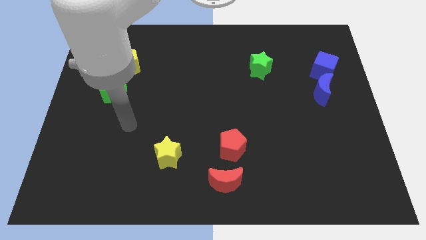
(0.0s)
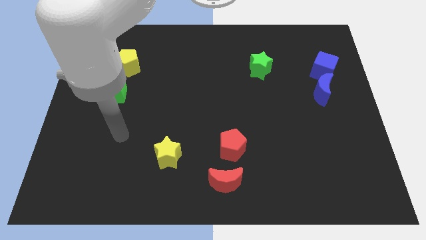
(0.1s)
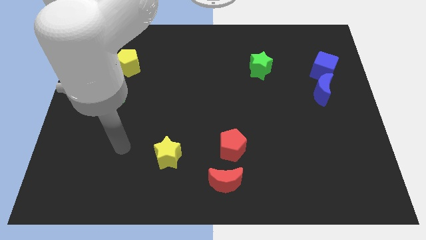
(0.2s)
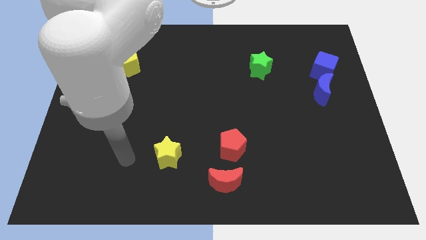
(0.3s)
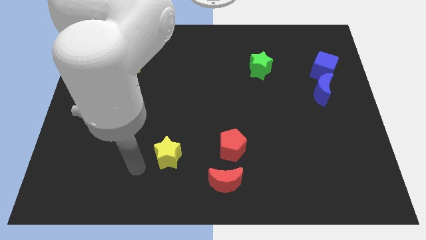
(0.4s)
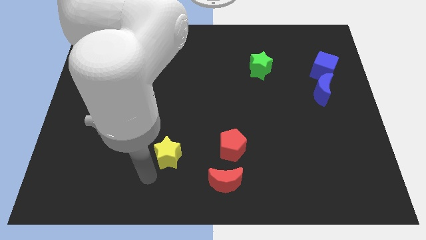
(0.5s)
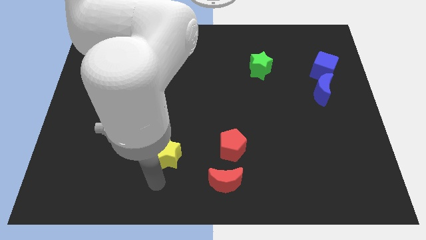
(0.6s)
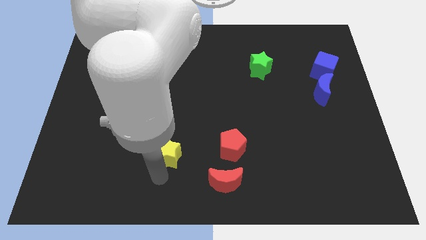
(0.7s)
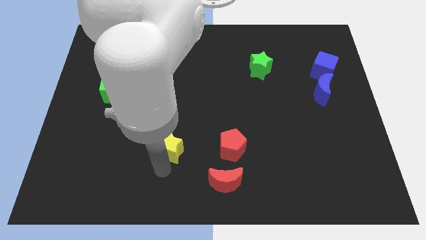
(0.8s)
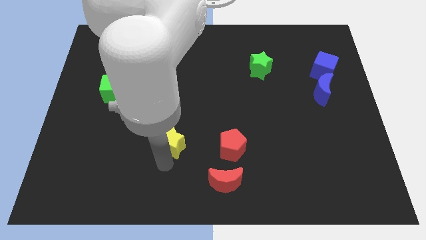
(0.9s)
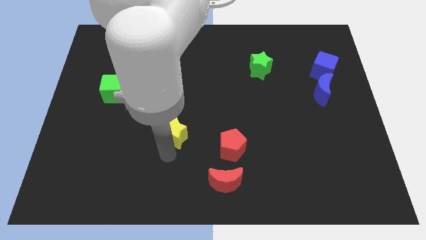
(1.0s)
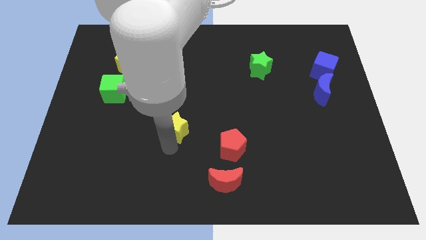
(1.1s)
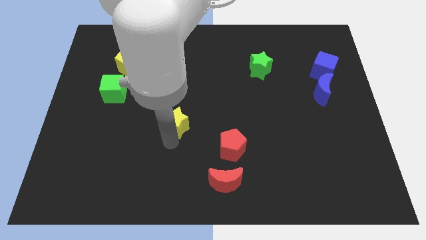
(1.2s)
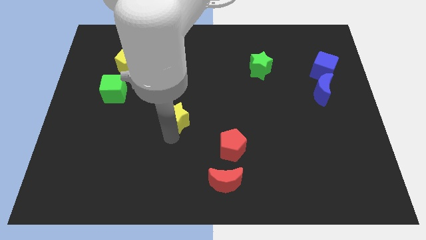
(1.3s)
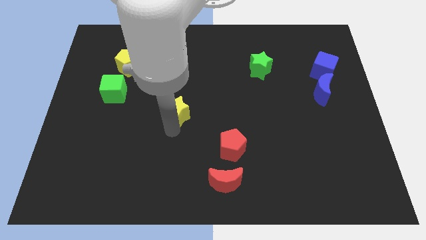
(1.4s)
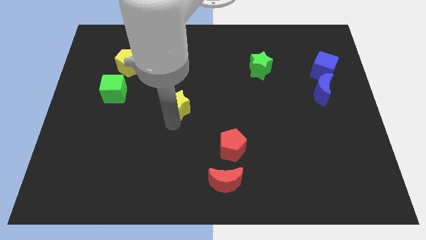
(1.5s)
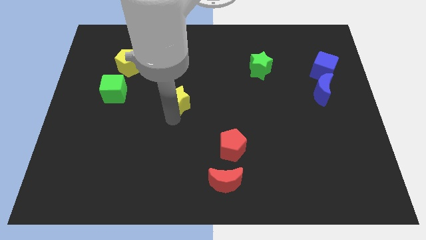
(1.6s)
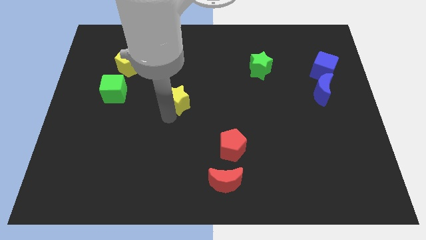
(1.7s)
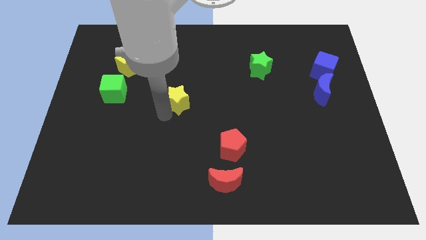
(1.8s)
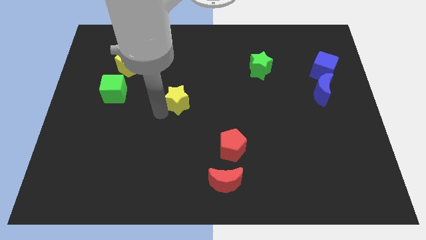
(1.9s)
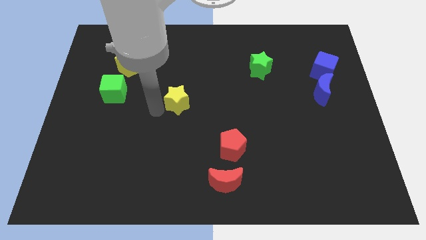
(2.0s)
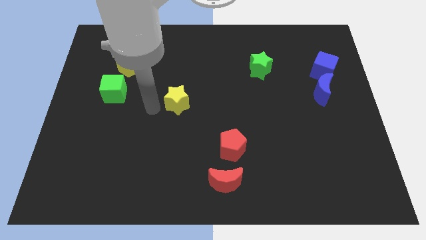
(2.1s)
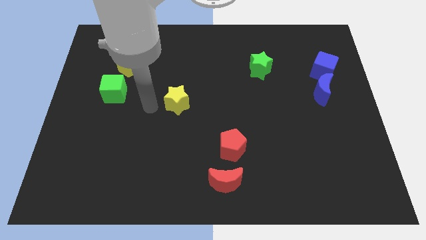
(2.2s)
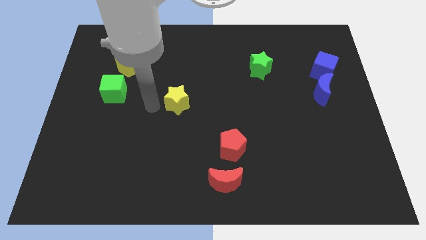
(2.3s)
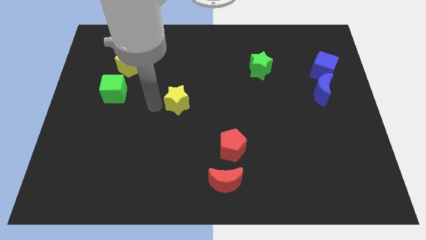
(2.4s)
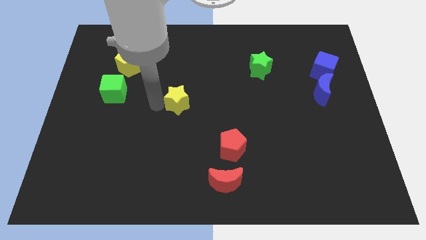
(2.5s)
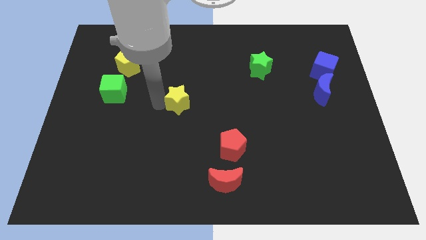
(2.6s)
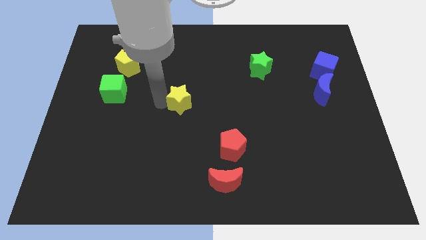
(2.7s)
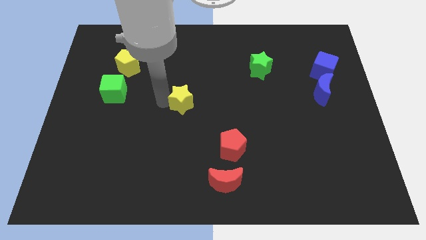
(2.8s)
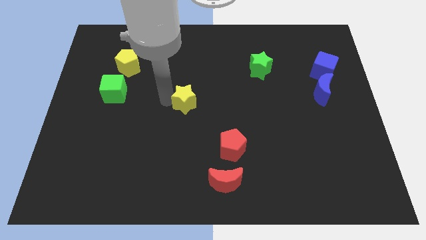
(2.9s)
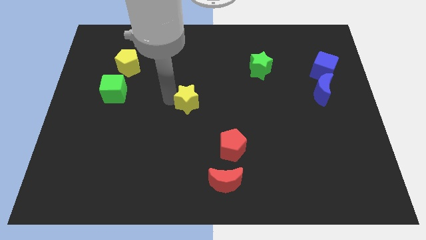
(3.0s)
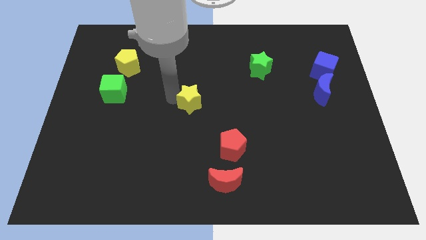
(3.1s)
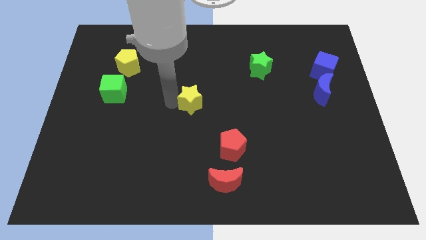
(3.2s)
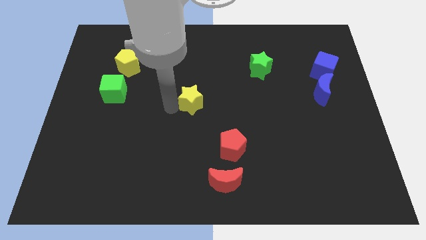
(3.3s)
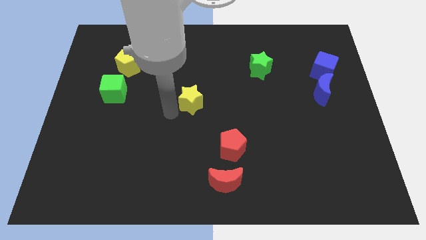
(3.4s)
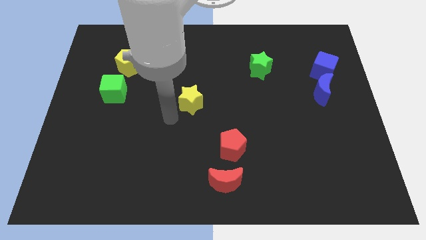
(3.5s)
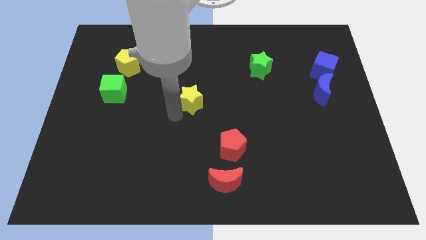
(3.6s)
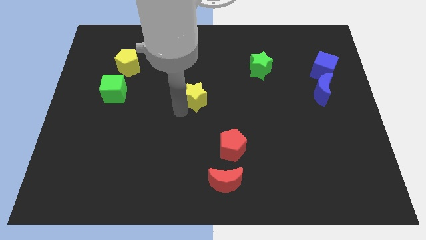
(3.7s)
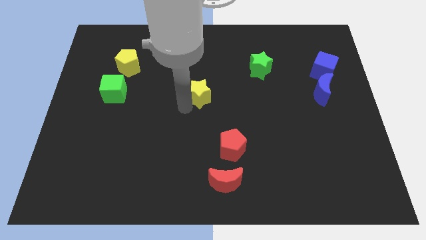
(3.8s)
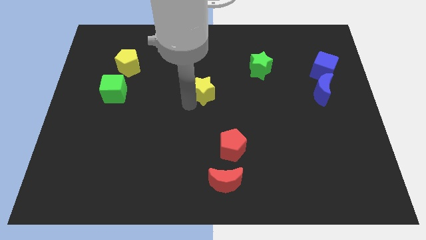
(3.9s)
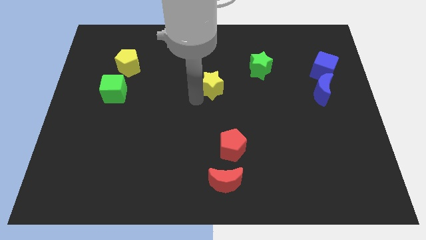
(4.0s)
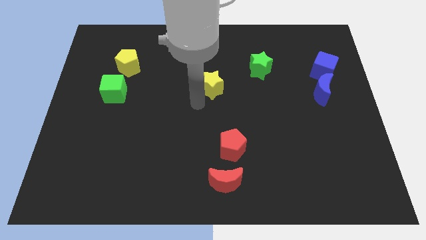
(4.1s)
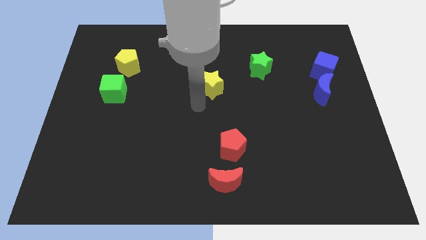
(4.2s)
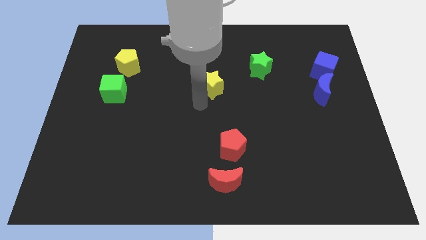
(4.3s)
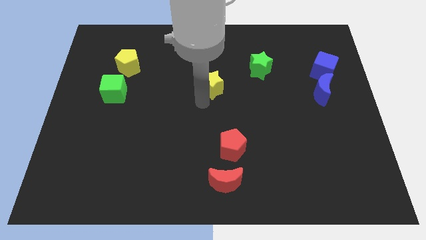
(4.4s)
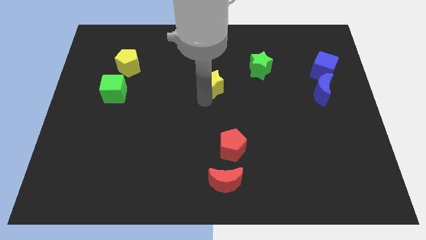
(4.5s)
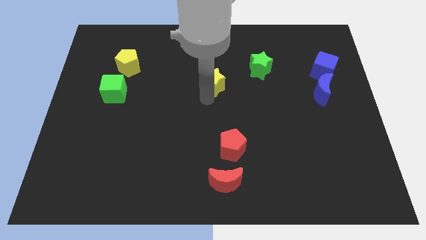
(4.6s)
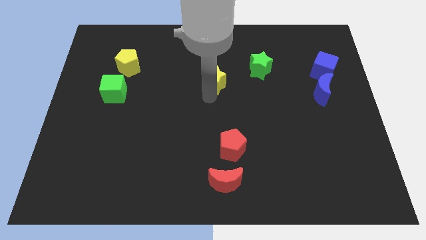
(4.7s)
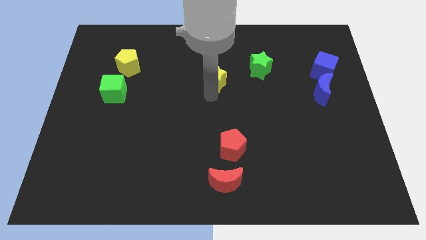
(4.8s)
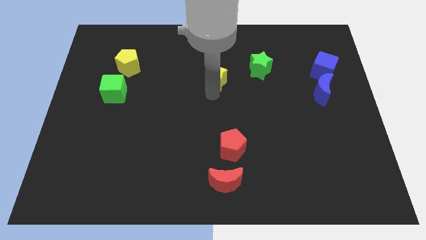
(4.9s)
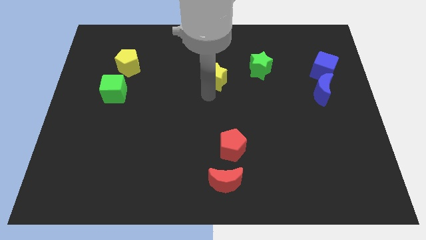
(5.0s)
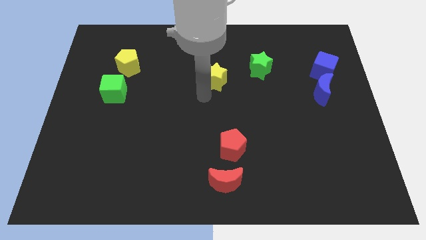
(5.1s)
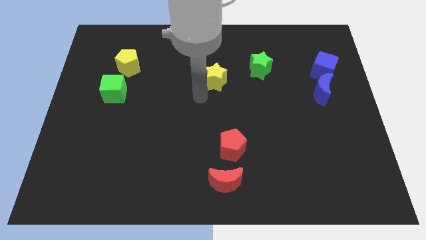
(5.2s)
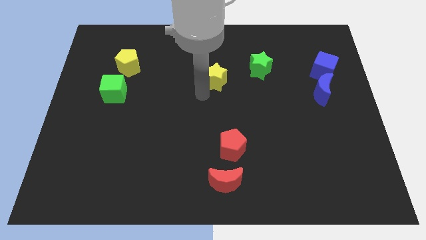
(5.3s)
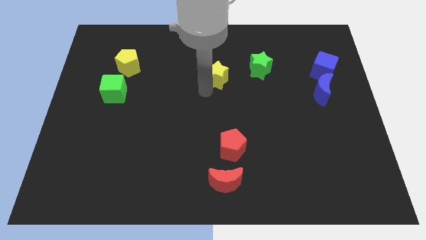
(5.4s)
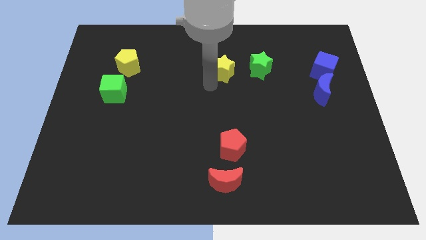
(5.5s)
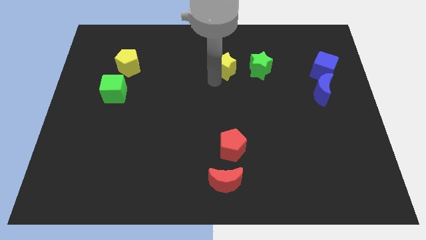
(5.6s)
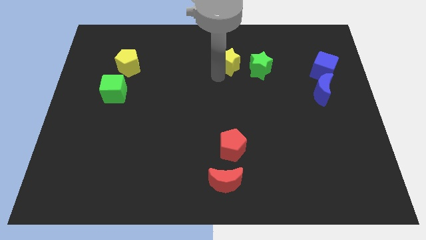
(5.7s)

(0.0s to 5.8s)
push the yellow star diagonally up and to the left of the green star
